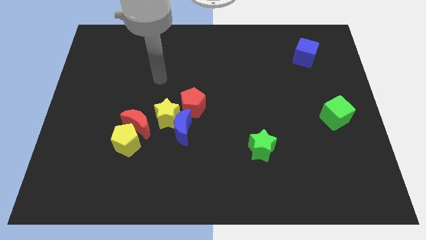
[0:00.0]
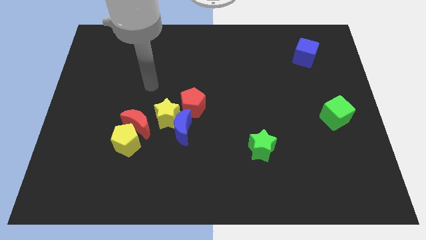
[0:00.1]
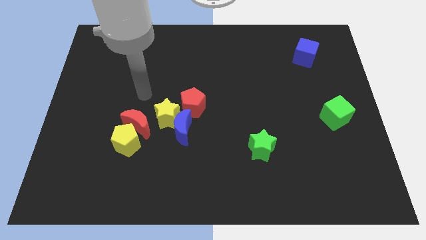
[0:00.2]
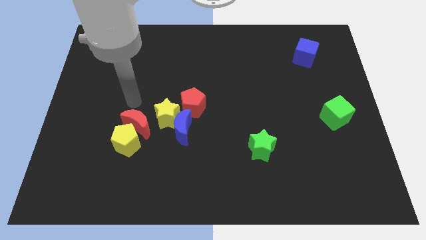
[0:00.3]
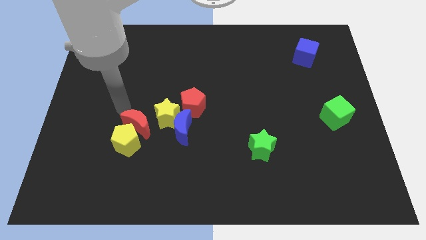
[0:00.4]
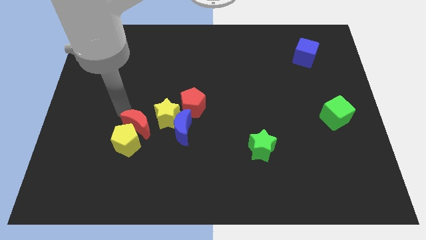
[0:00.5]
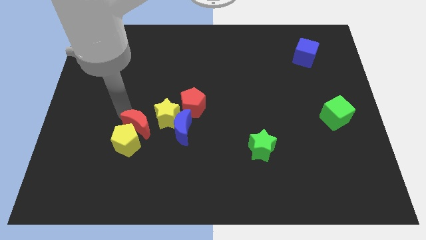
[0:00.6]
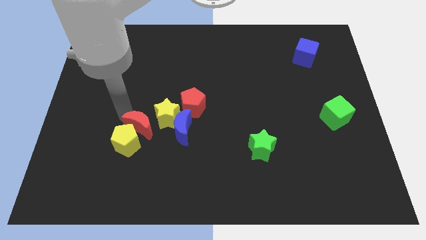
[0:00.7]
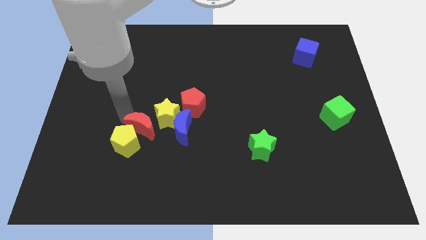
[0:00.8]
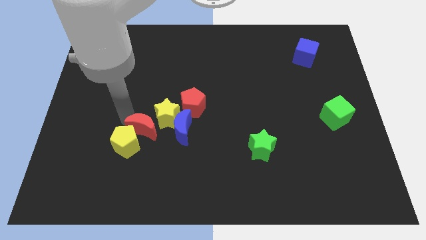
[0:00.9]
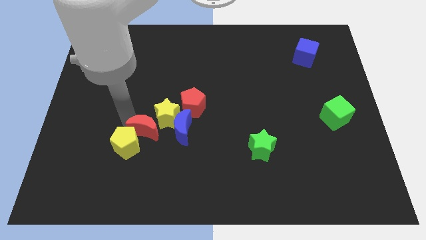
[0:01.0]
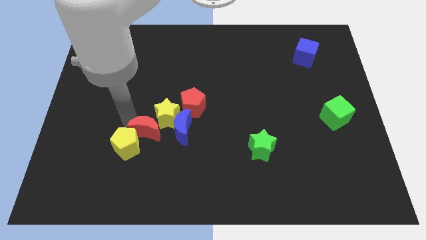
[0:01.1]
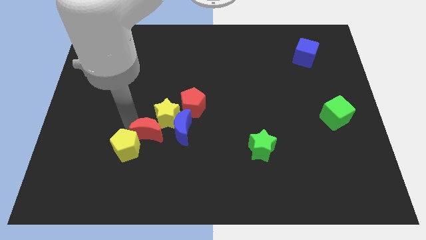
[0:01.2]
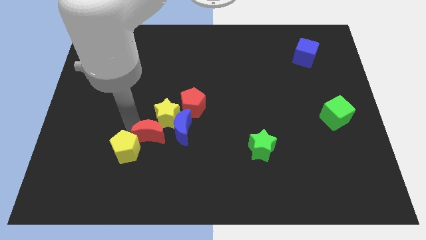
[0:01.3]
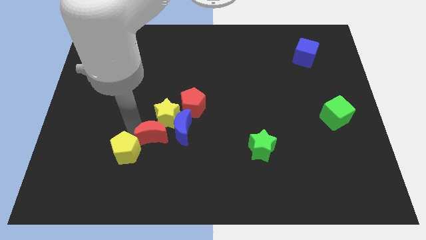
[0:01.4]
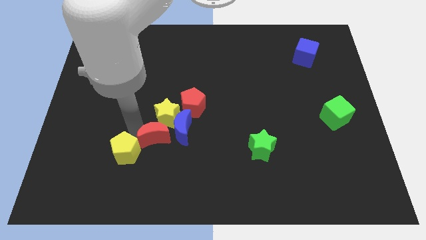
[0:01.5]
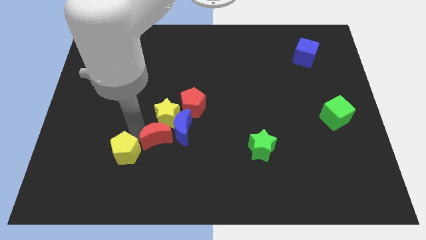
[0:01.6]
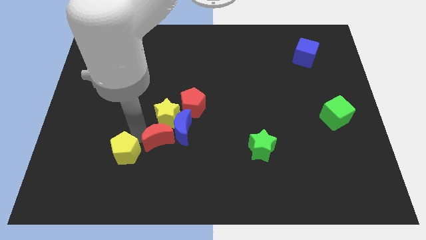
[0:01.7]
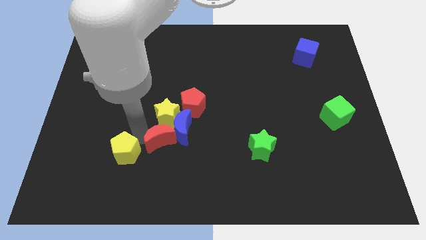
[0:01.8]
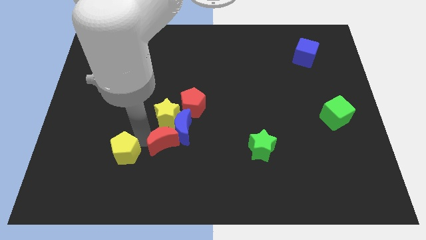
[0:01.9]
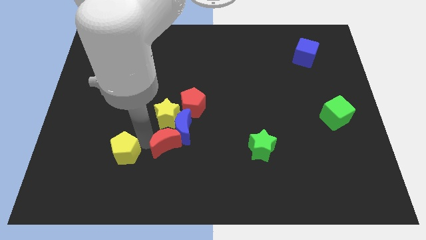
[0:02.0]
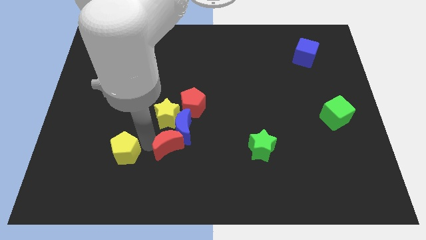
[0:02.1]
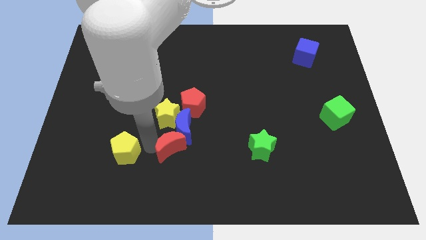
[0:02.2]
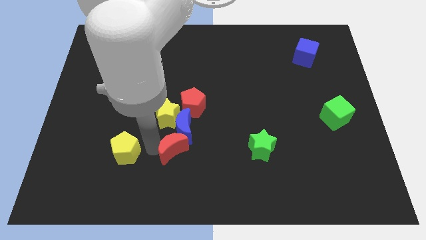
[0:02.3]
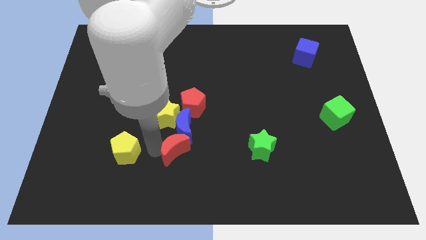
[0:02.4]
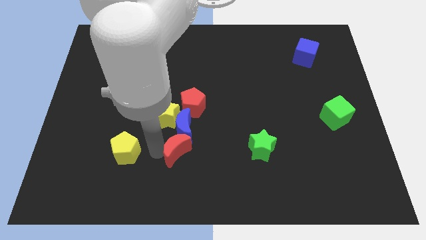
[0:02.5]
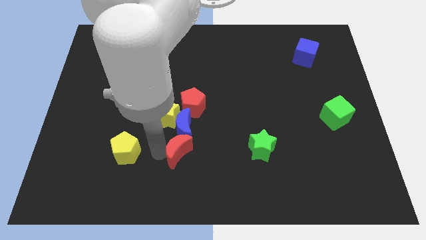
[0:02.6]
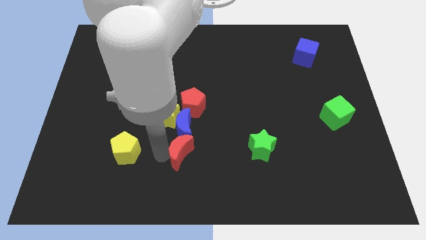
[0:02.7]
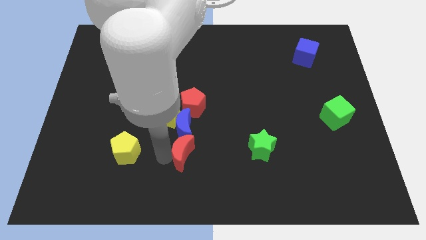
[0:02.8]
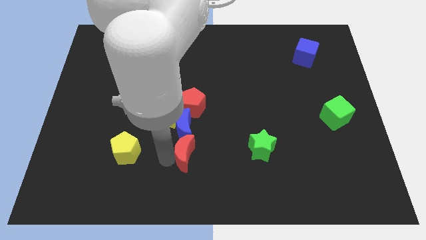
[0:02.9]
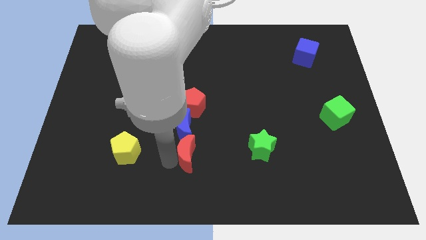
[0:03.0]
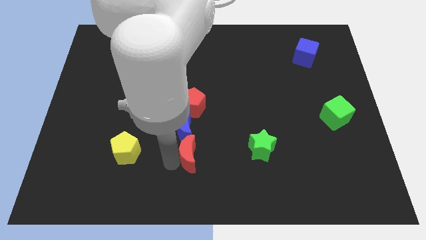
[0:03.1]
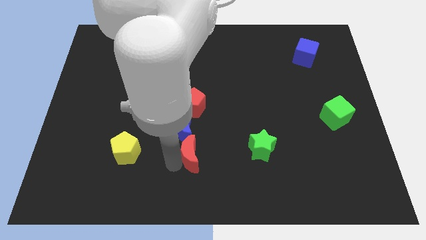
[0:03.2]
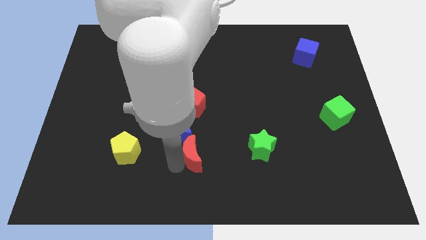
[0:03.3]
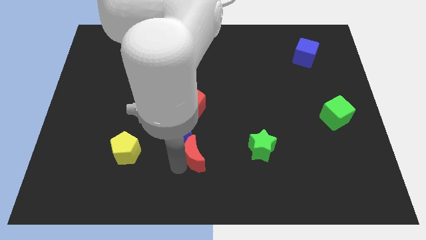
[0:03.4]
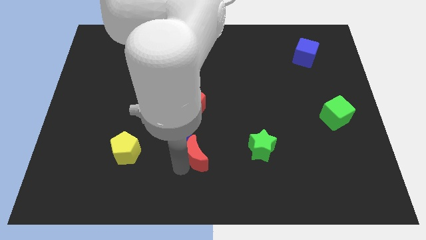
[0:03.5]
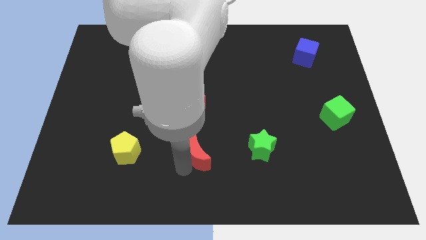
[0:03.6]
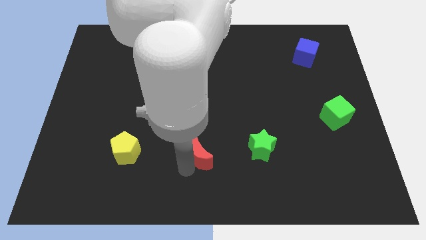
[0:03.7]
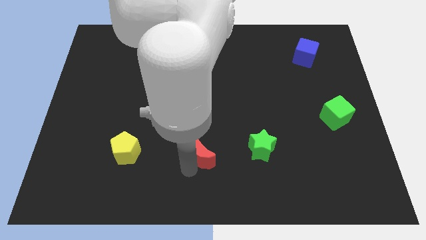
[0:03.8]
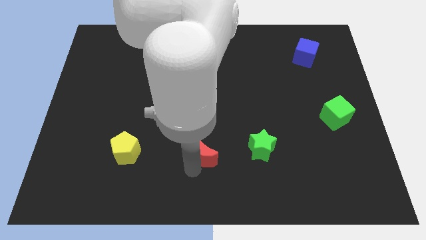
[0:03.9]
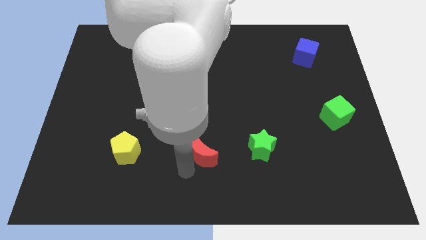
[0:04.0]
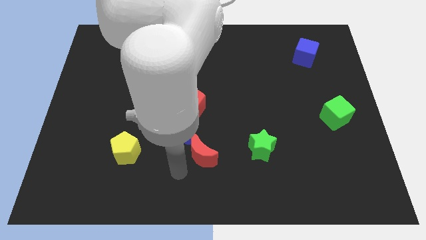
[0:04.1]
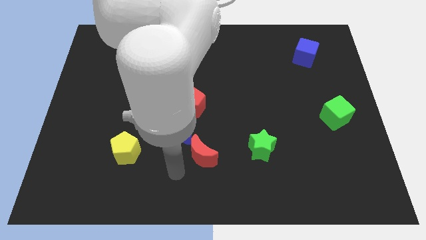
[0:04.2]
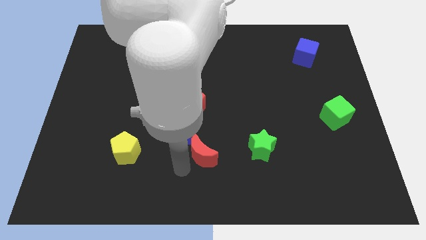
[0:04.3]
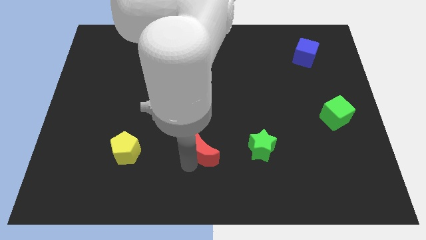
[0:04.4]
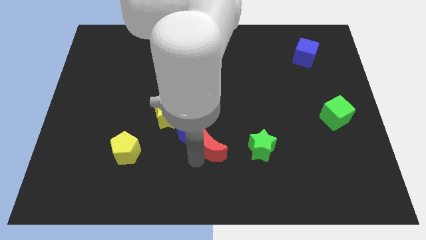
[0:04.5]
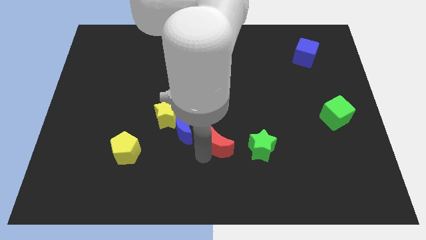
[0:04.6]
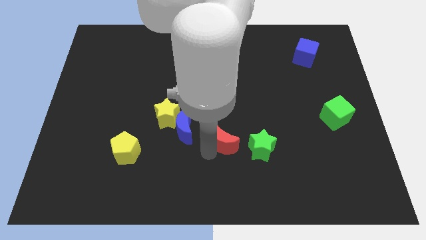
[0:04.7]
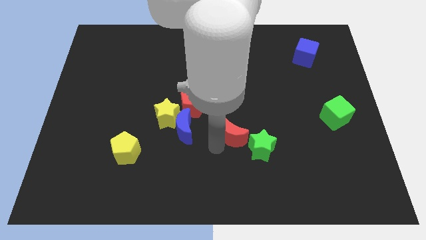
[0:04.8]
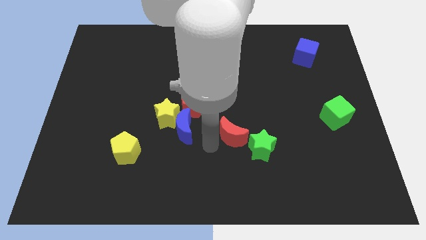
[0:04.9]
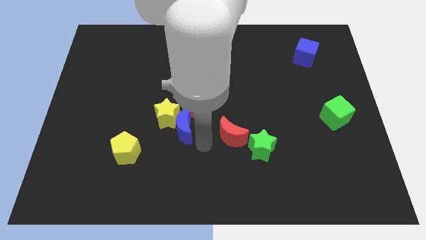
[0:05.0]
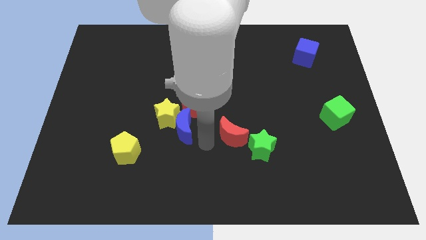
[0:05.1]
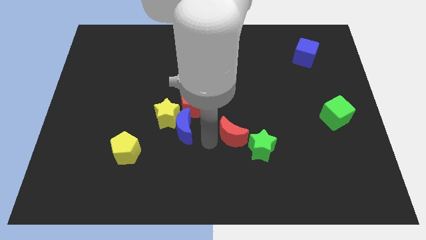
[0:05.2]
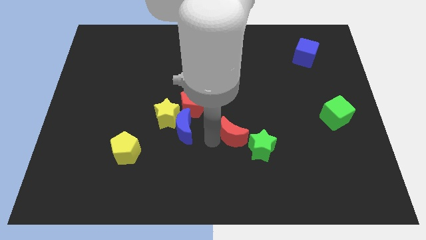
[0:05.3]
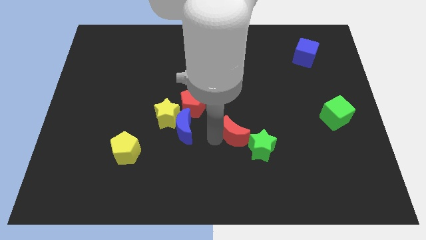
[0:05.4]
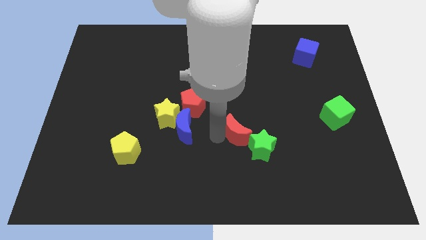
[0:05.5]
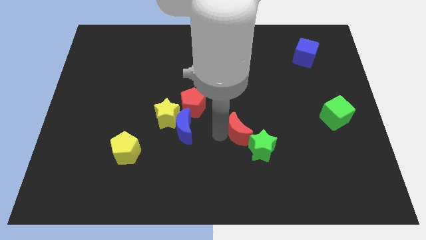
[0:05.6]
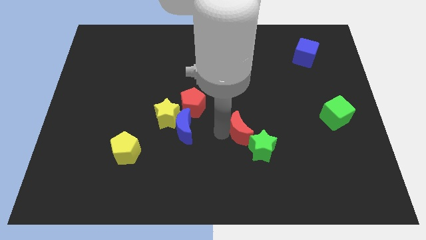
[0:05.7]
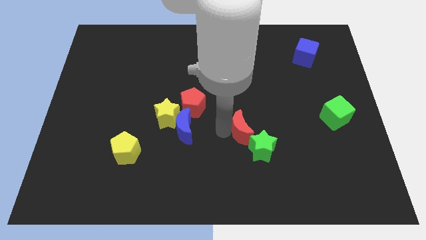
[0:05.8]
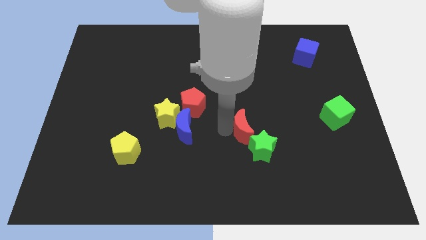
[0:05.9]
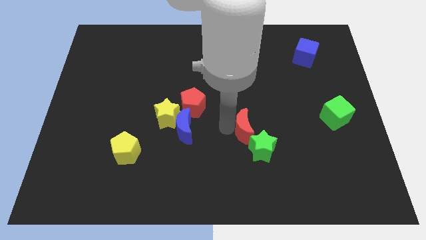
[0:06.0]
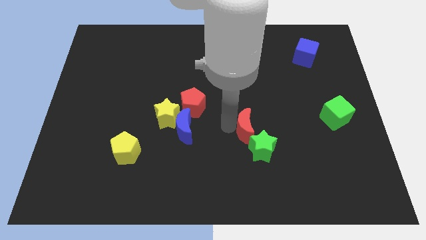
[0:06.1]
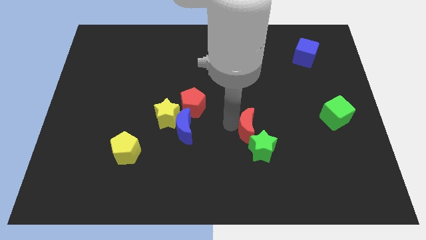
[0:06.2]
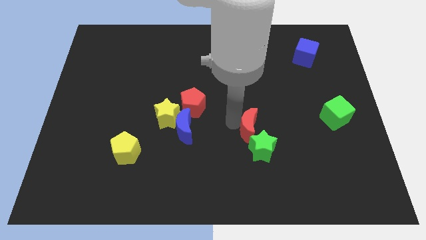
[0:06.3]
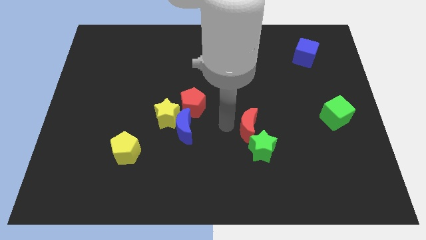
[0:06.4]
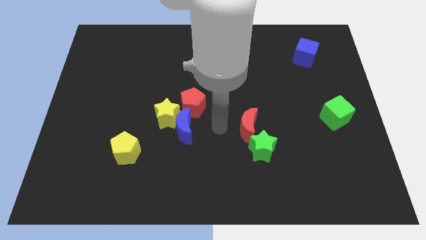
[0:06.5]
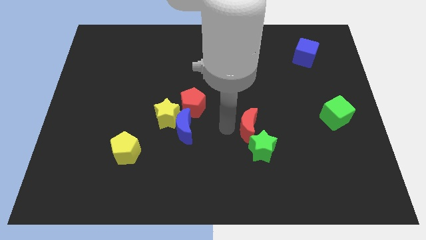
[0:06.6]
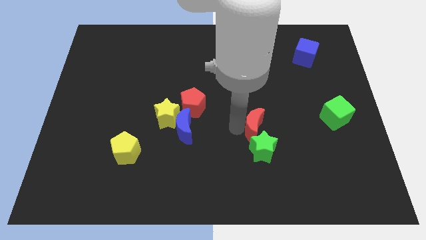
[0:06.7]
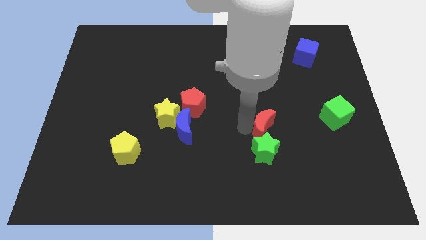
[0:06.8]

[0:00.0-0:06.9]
move the red moon diagonally up and to the right of the green star

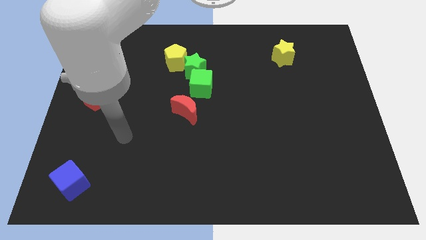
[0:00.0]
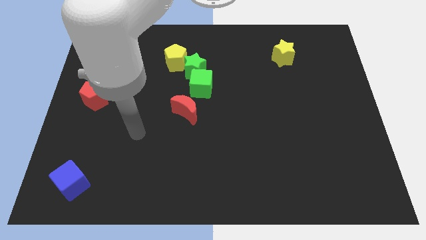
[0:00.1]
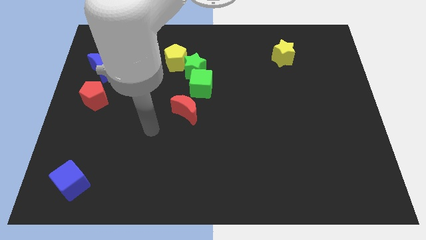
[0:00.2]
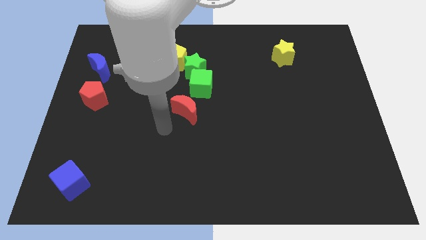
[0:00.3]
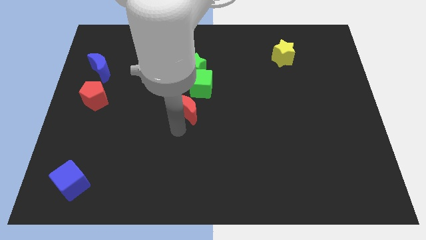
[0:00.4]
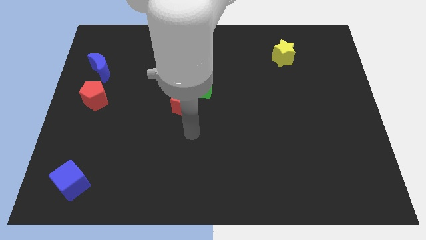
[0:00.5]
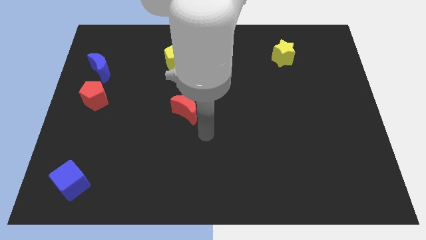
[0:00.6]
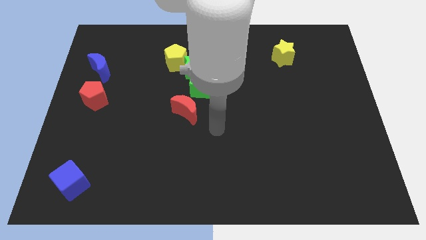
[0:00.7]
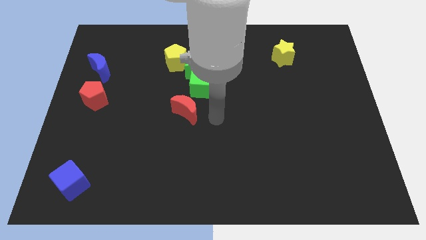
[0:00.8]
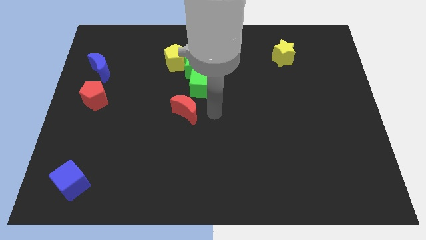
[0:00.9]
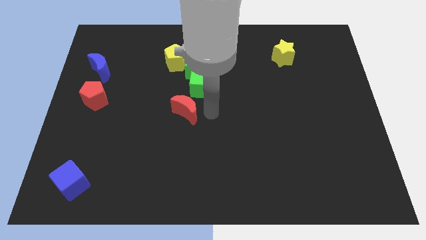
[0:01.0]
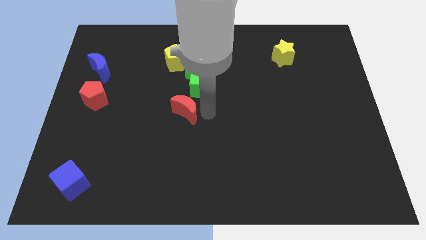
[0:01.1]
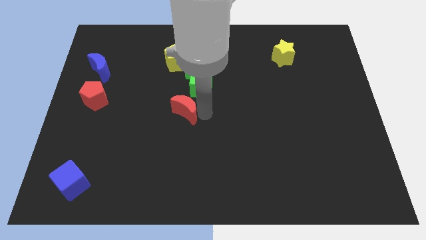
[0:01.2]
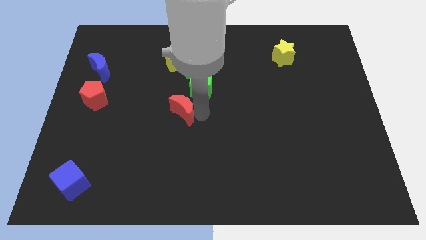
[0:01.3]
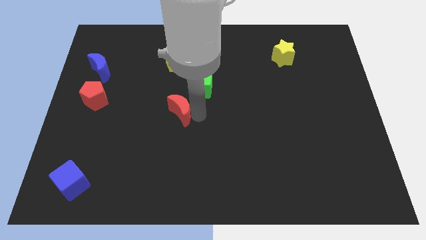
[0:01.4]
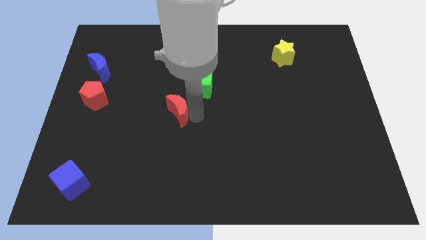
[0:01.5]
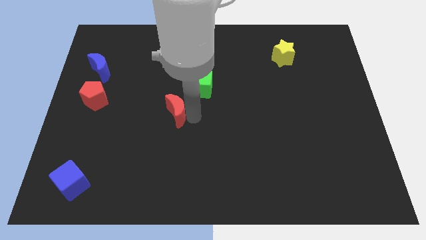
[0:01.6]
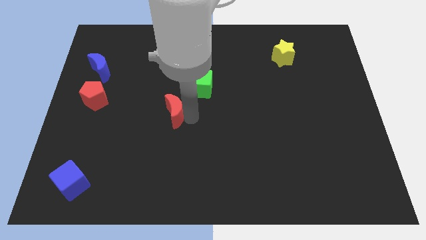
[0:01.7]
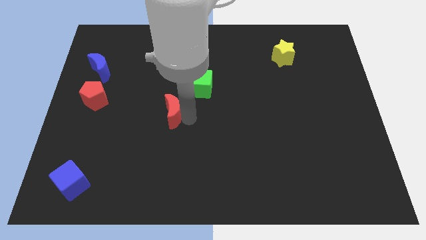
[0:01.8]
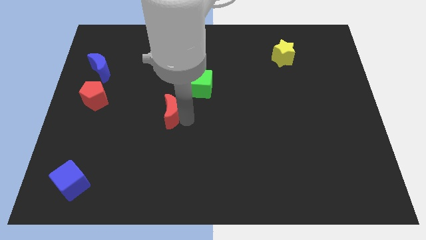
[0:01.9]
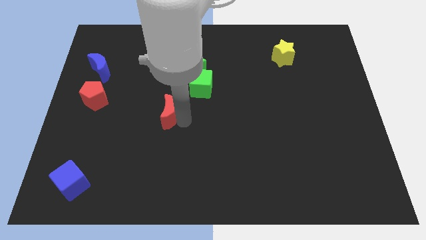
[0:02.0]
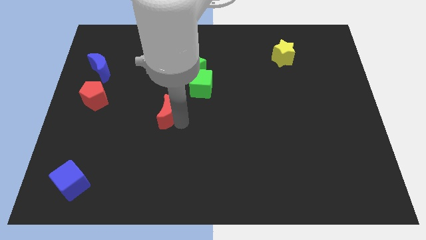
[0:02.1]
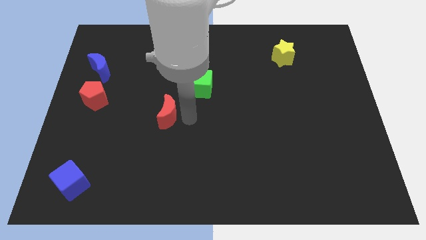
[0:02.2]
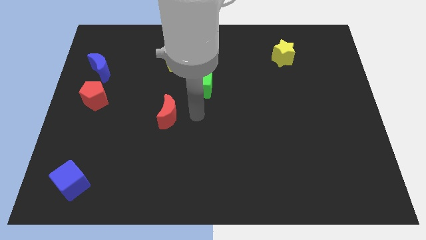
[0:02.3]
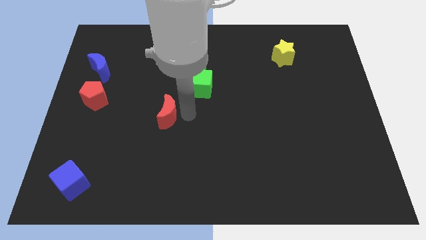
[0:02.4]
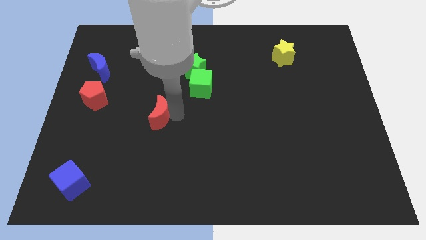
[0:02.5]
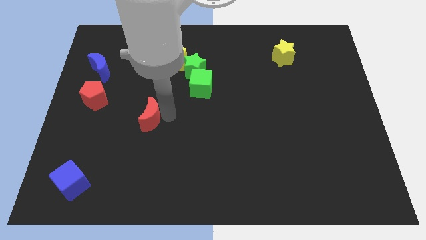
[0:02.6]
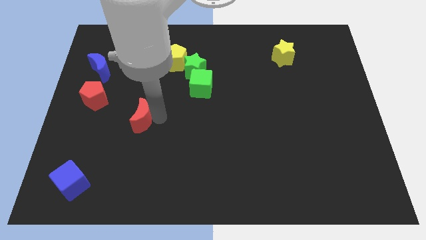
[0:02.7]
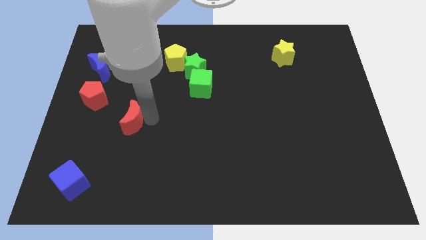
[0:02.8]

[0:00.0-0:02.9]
move the red moon to the bottom right of the red pentagon
